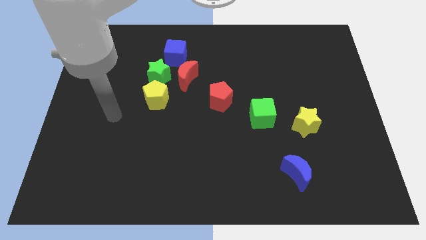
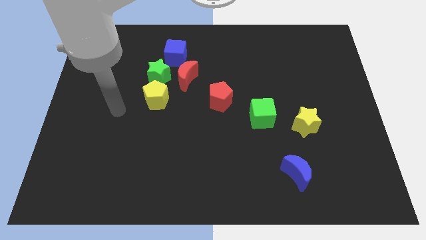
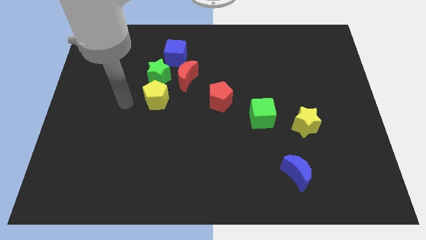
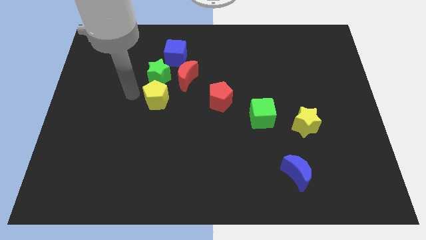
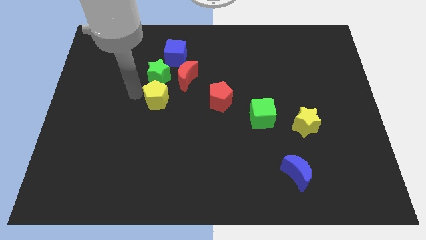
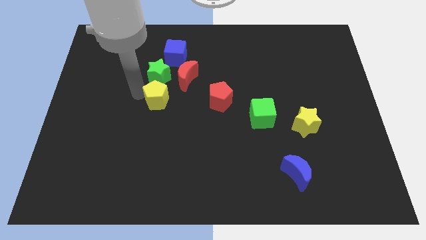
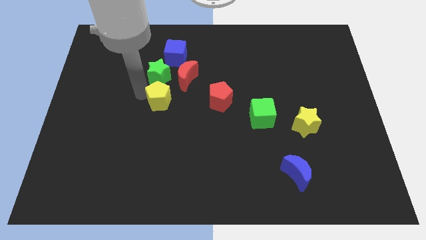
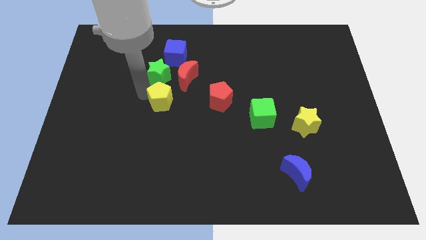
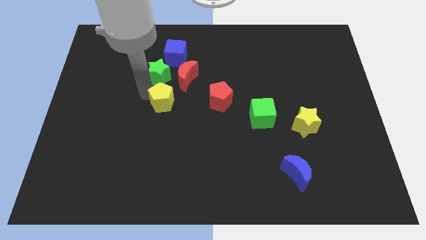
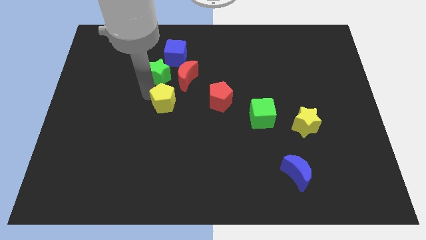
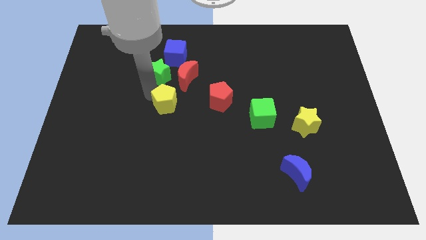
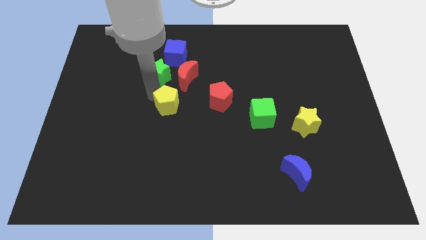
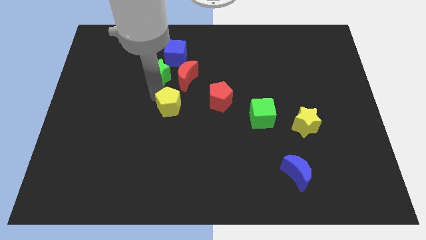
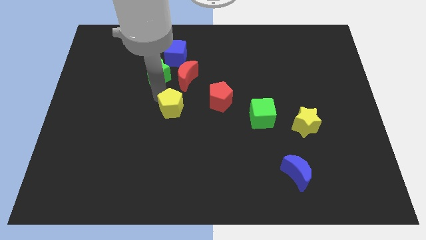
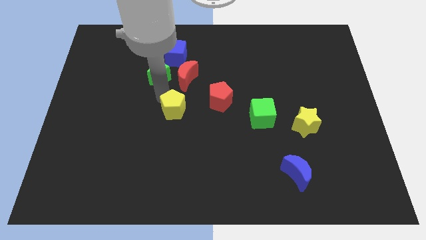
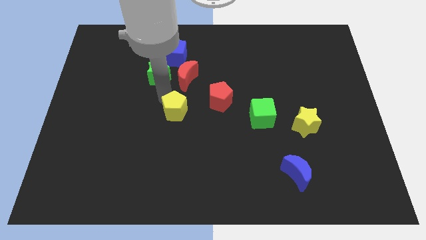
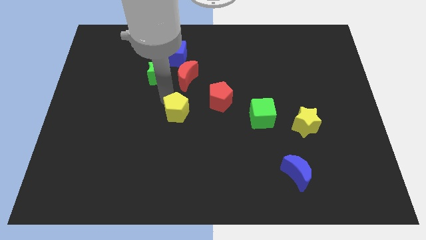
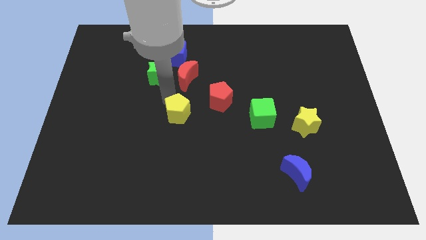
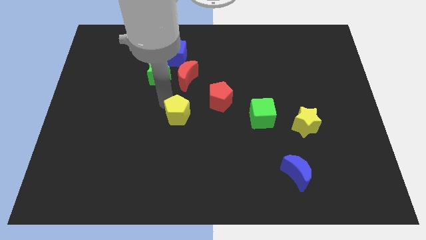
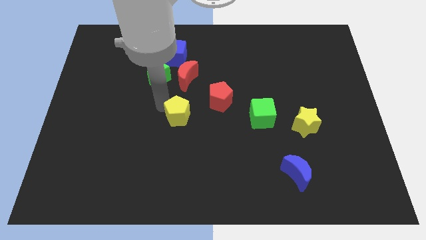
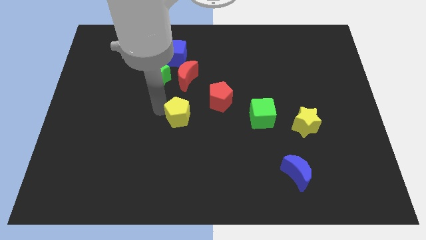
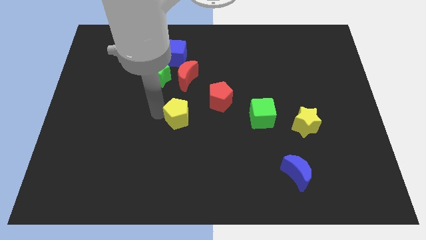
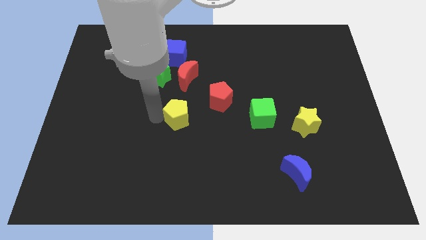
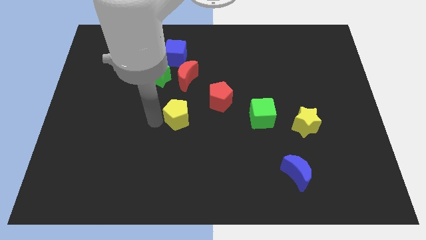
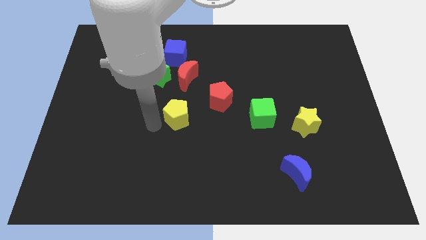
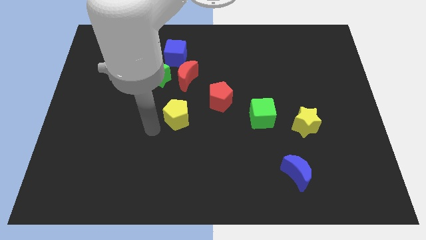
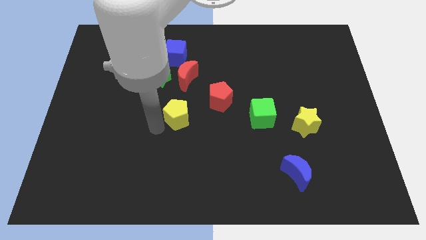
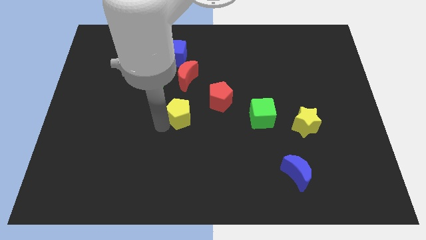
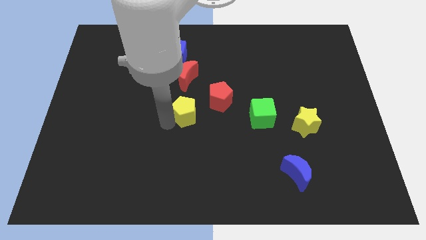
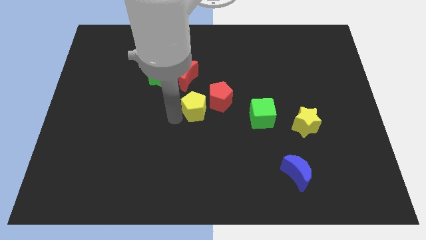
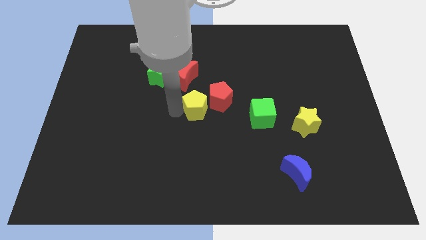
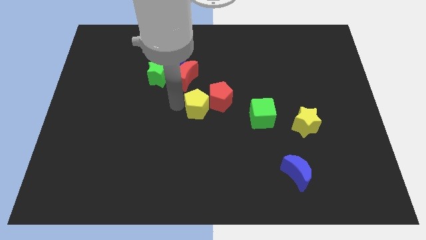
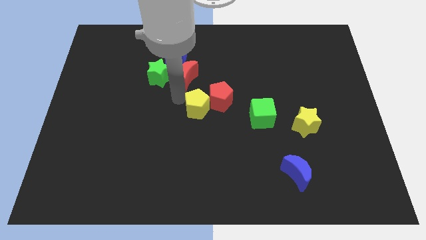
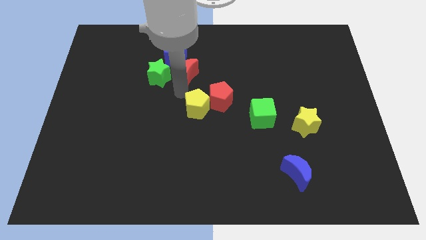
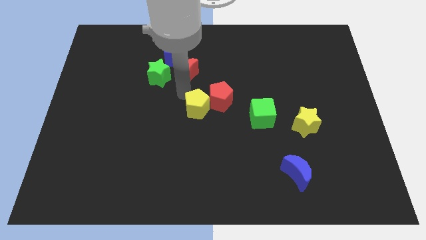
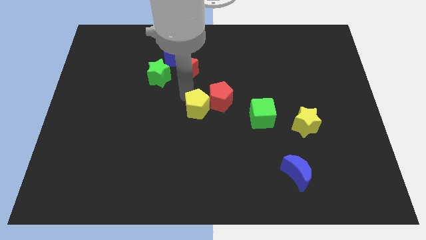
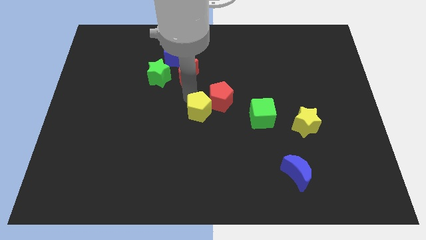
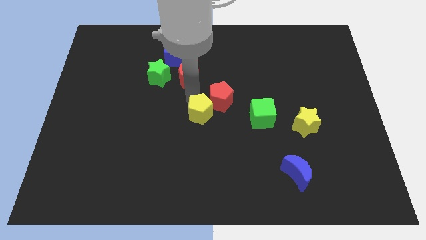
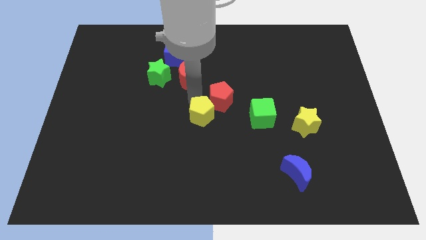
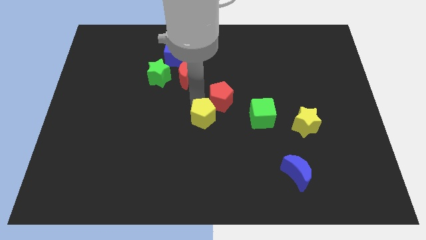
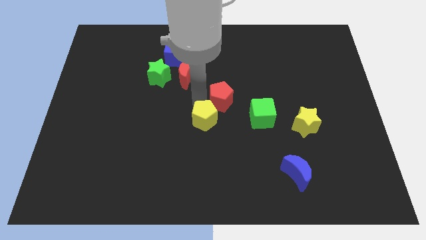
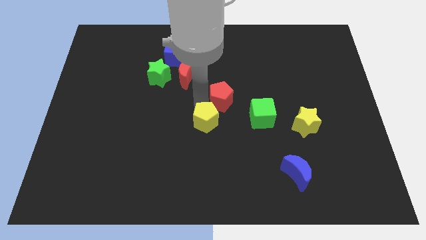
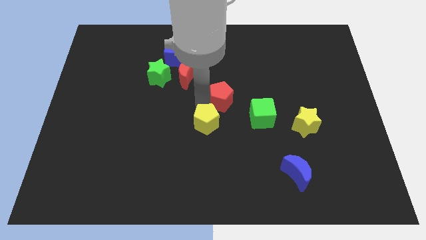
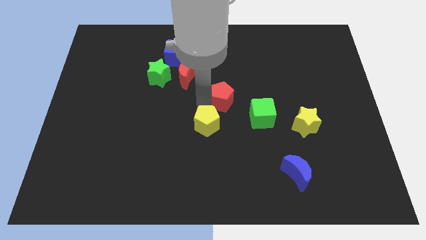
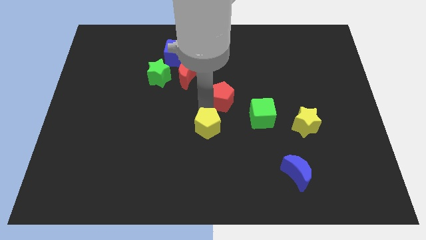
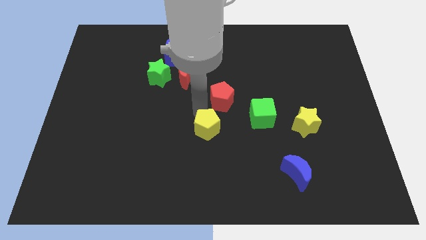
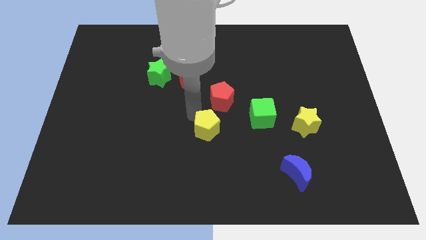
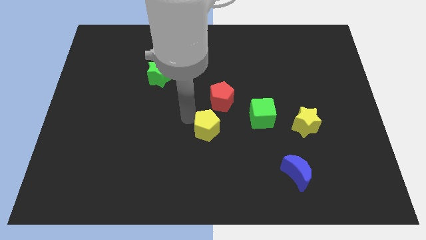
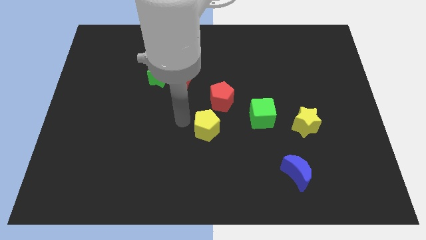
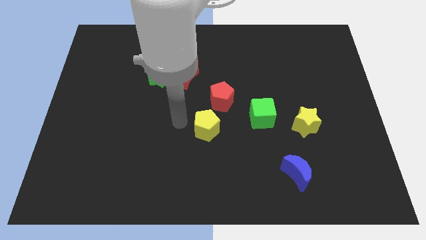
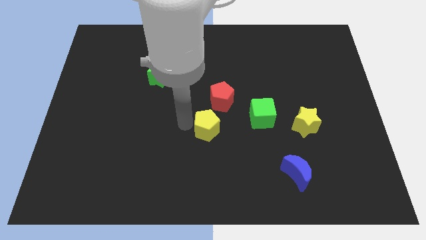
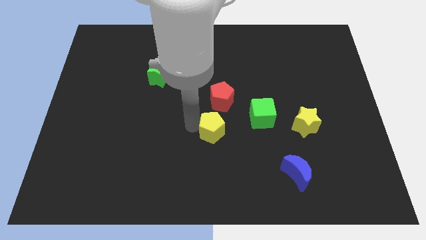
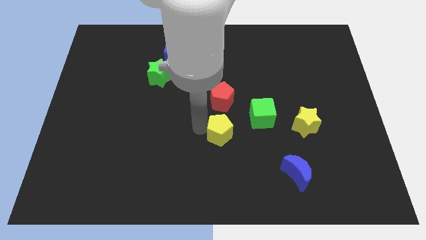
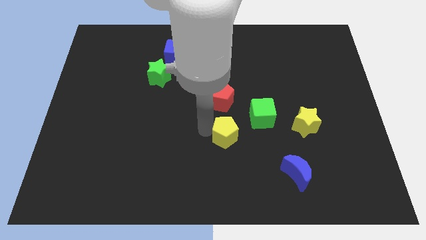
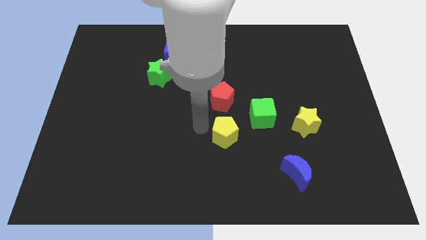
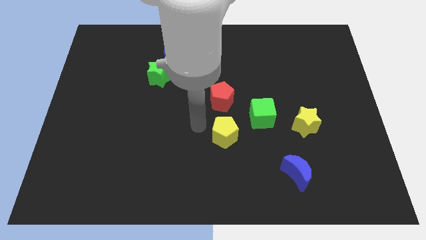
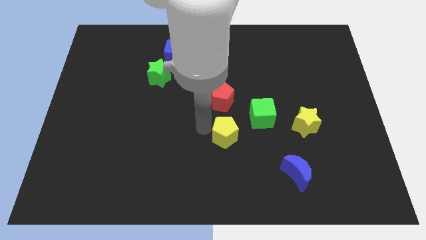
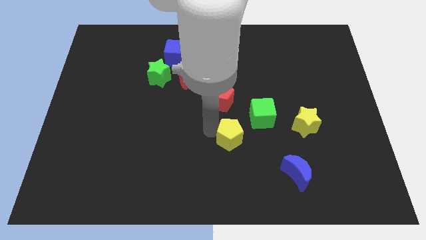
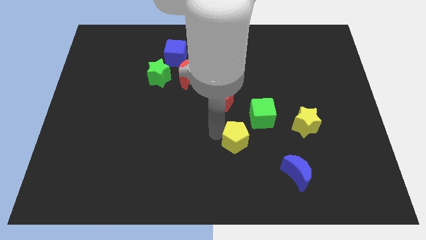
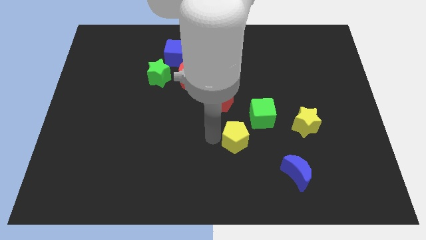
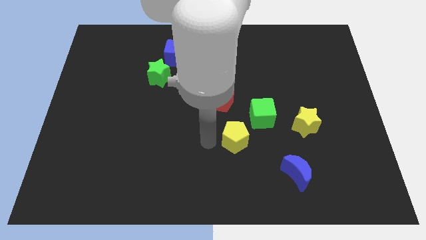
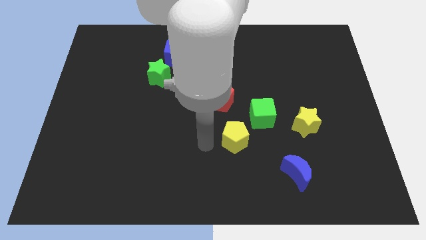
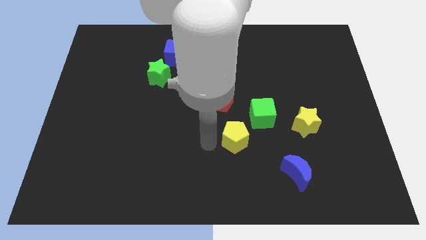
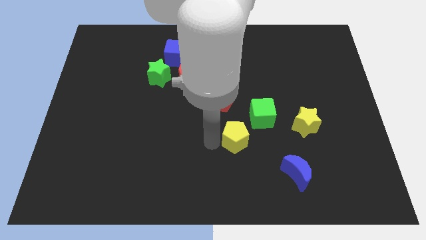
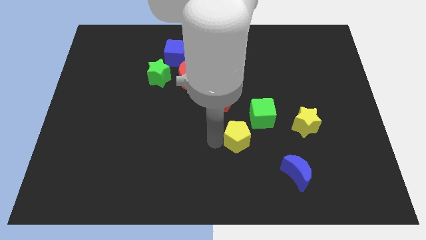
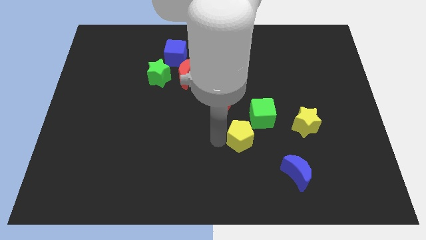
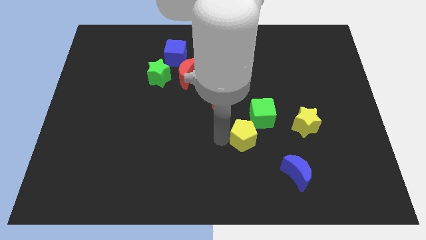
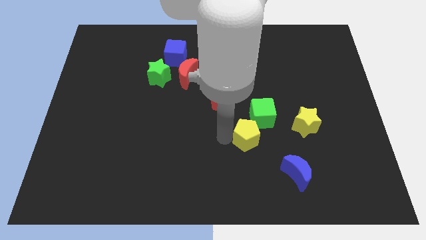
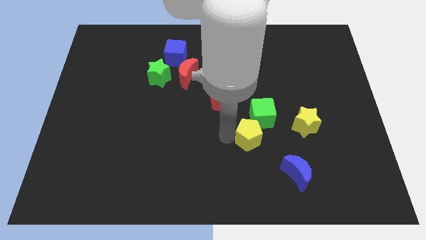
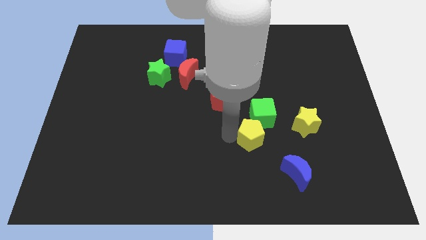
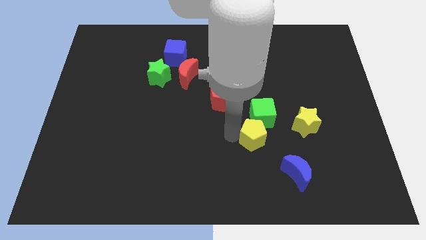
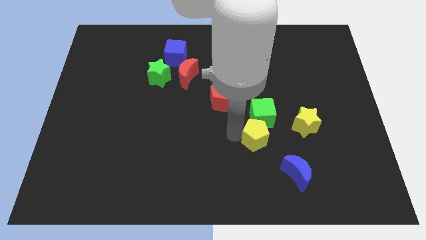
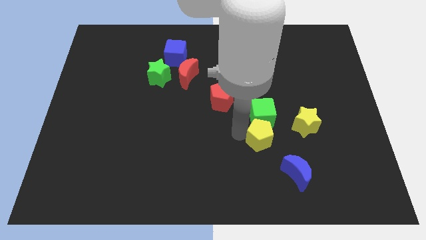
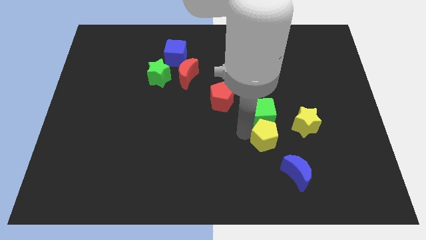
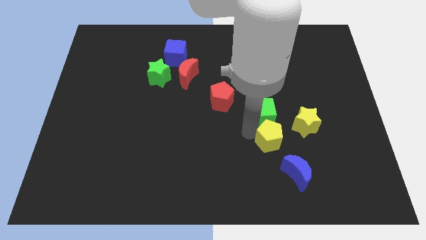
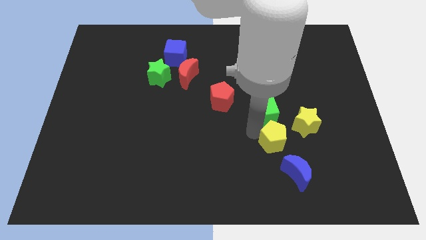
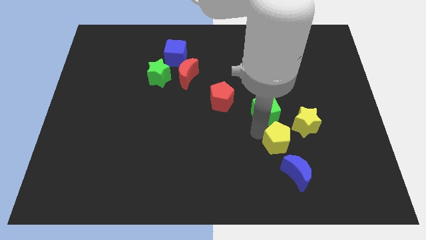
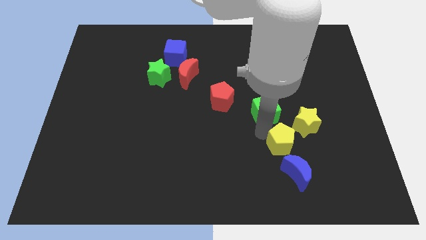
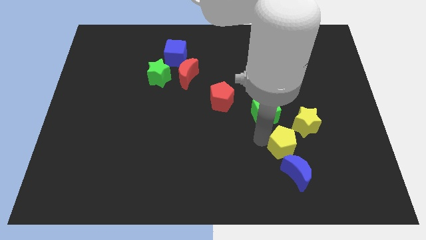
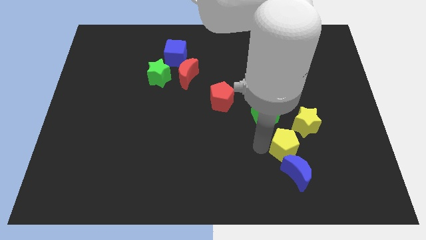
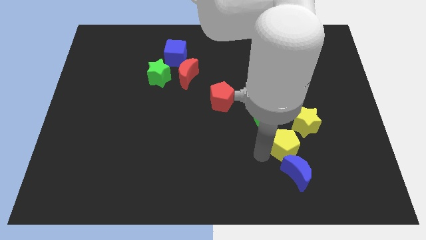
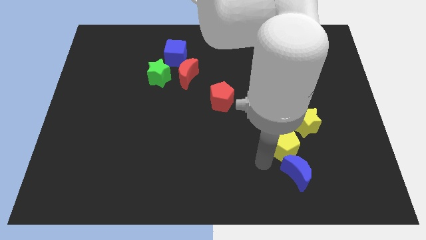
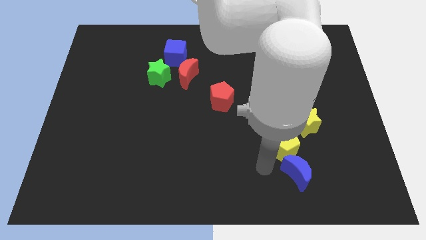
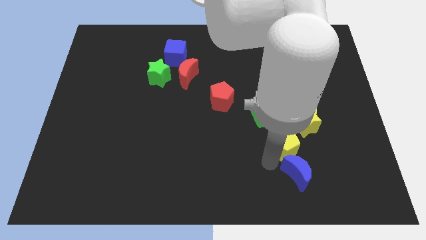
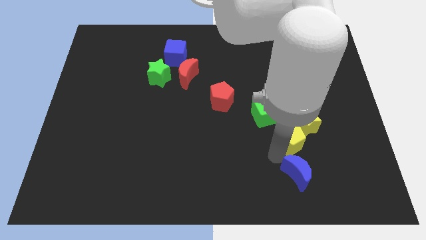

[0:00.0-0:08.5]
put the yellow pentagon close to the yellow star
